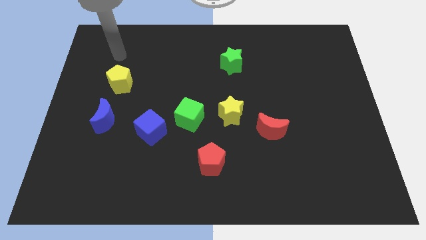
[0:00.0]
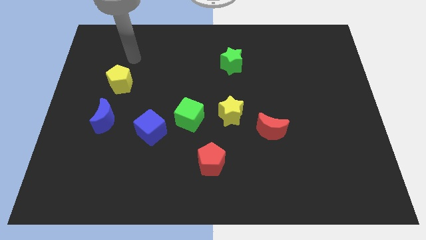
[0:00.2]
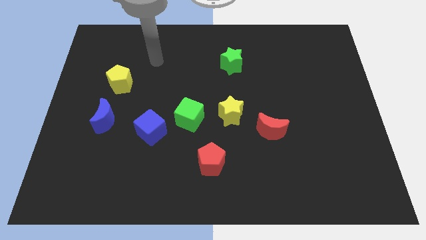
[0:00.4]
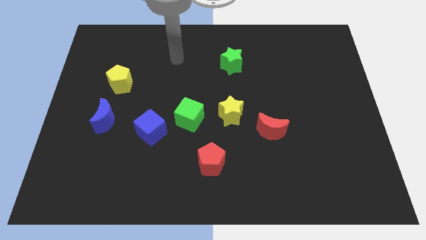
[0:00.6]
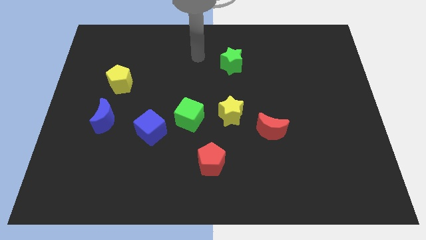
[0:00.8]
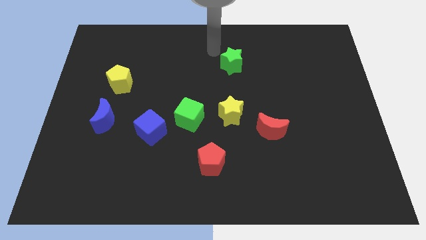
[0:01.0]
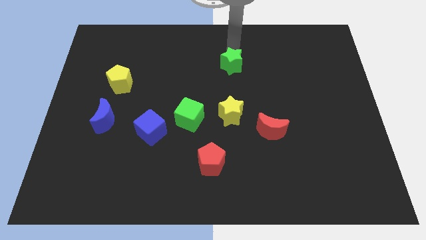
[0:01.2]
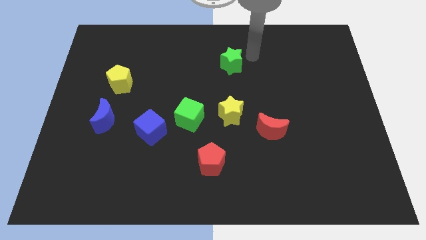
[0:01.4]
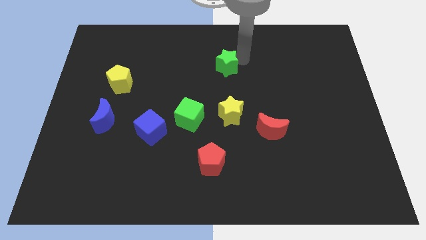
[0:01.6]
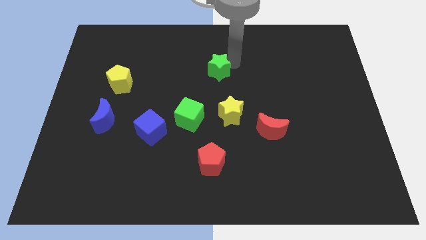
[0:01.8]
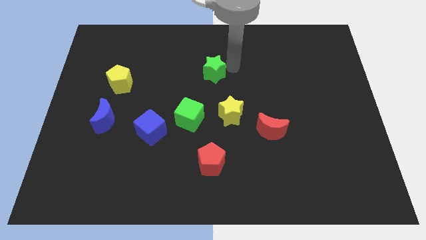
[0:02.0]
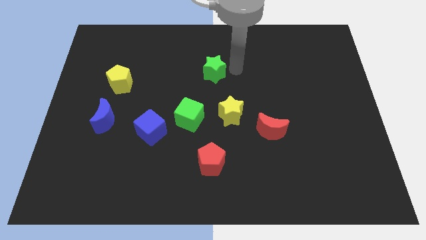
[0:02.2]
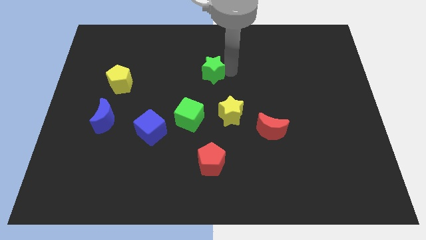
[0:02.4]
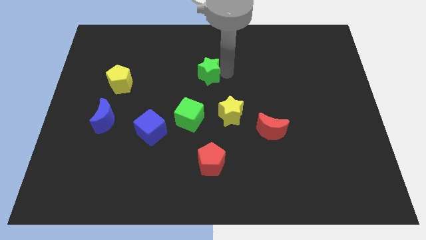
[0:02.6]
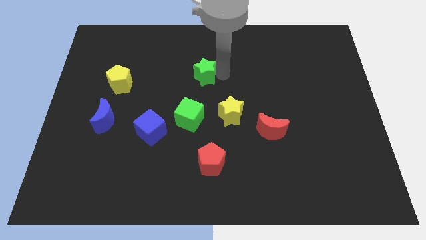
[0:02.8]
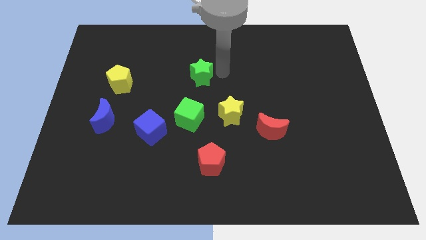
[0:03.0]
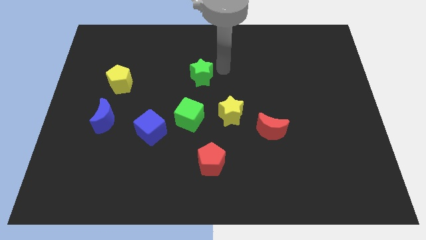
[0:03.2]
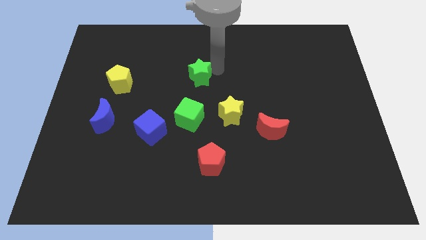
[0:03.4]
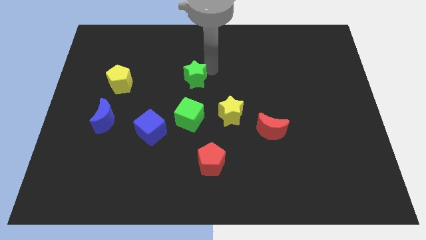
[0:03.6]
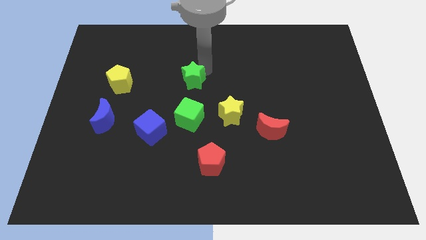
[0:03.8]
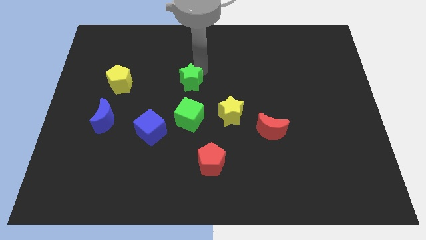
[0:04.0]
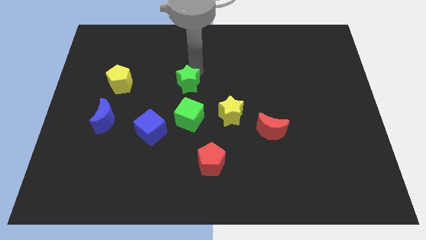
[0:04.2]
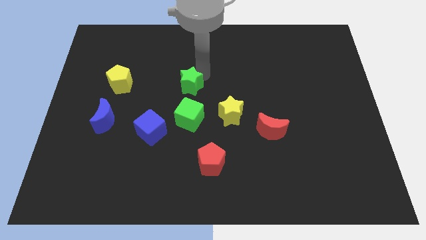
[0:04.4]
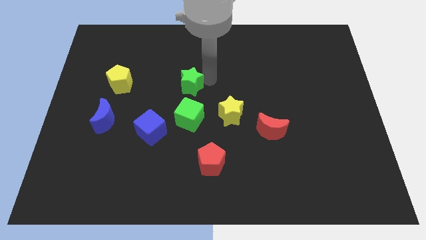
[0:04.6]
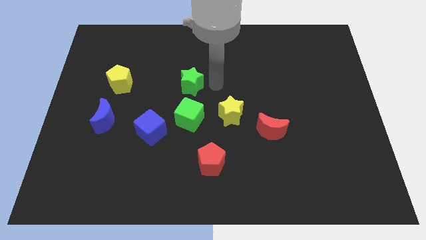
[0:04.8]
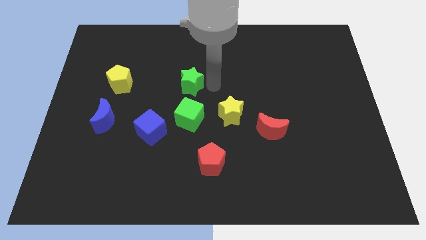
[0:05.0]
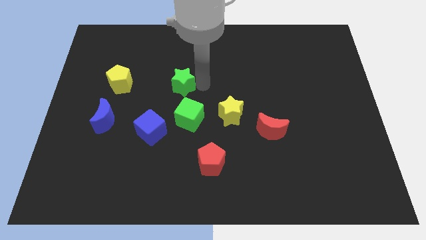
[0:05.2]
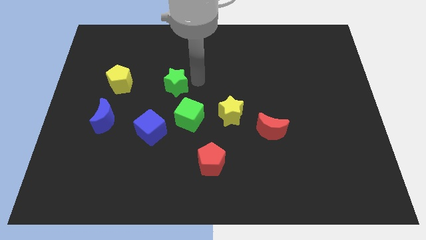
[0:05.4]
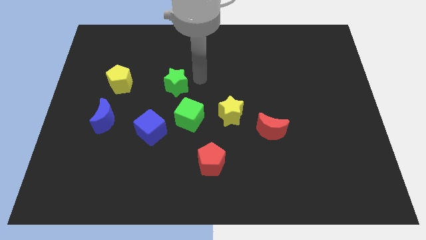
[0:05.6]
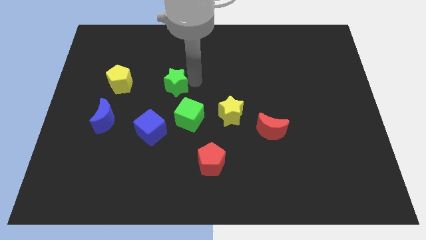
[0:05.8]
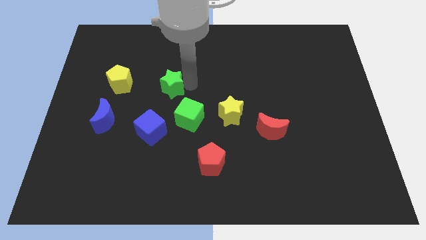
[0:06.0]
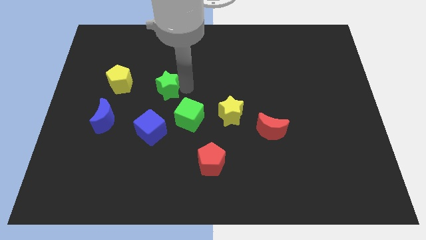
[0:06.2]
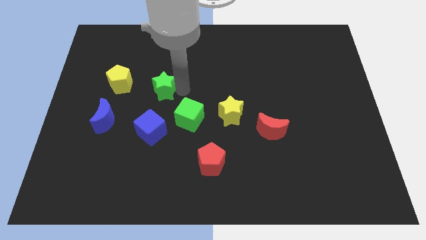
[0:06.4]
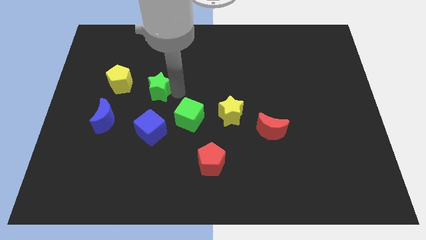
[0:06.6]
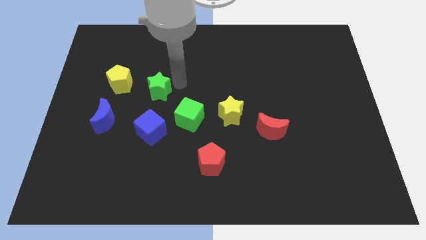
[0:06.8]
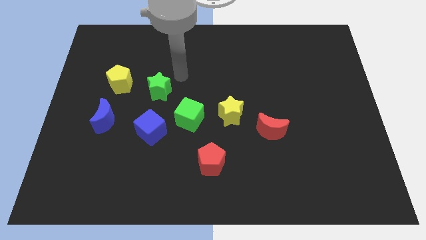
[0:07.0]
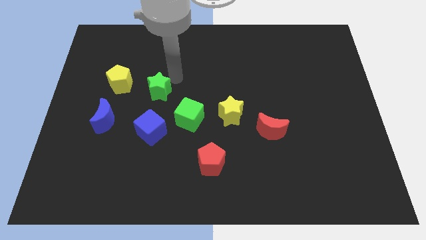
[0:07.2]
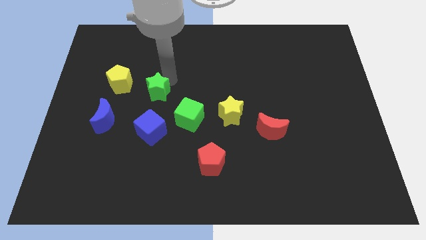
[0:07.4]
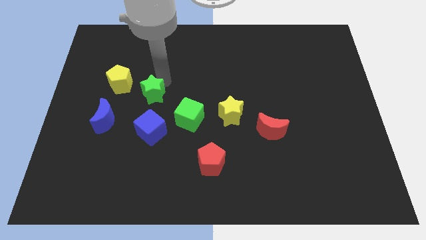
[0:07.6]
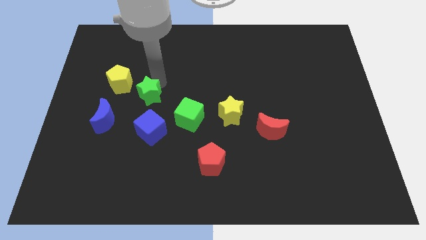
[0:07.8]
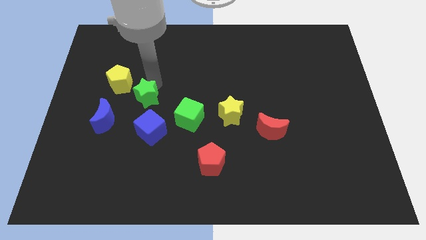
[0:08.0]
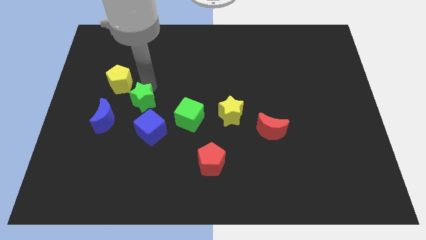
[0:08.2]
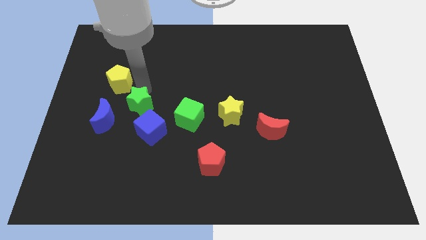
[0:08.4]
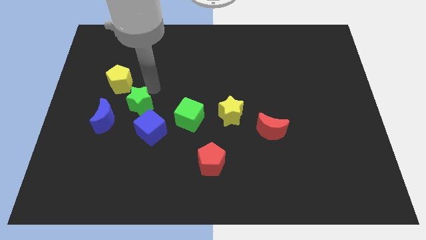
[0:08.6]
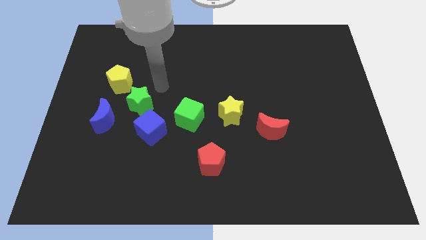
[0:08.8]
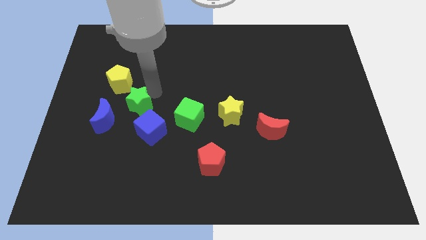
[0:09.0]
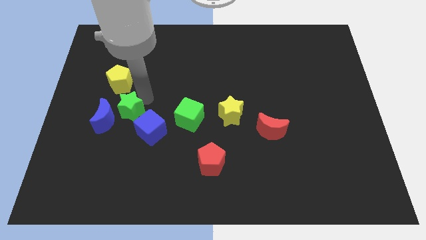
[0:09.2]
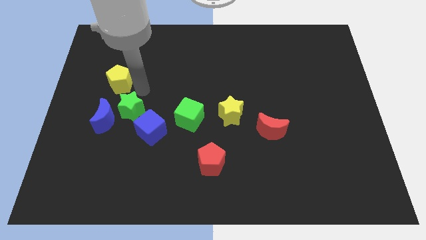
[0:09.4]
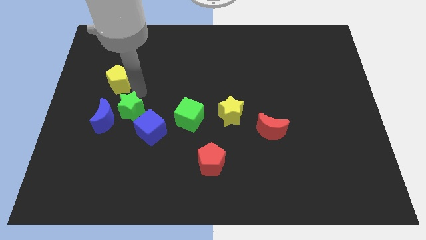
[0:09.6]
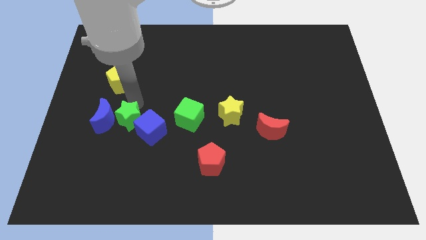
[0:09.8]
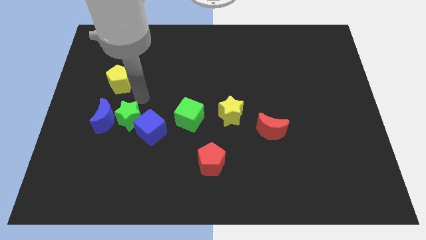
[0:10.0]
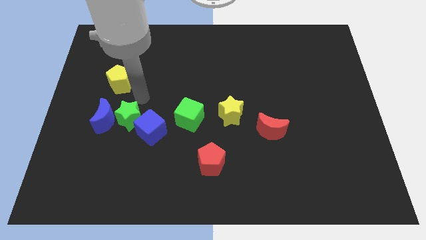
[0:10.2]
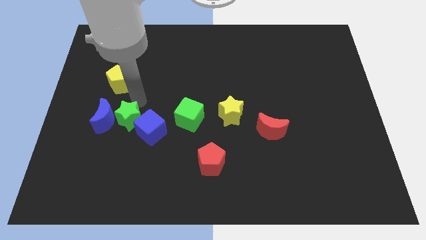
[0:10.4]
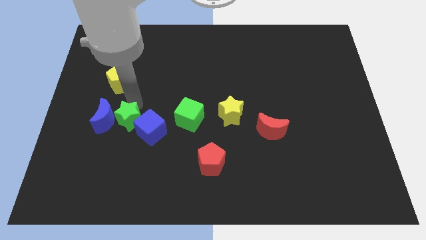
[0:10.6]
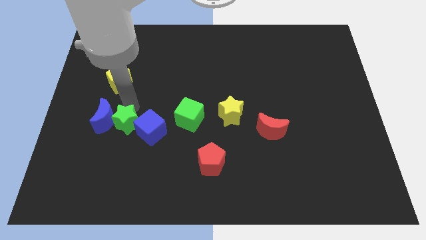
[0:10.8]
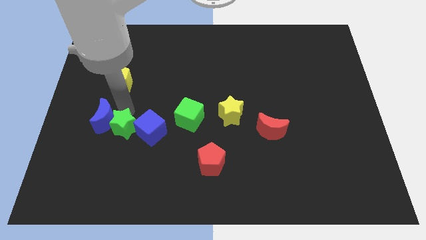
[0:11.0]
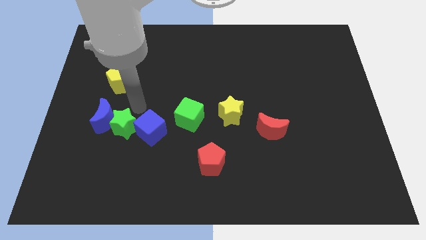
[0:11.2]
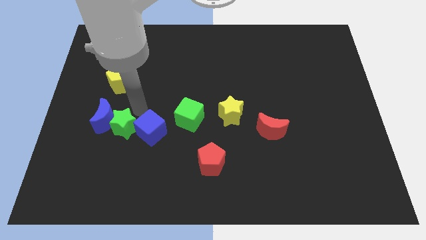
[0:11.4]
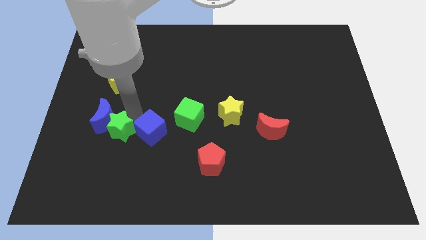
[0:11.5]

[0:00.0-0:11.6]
push the green star to the bottom of the blue moon

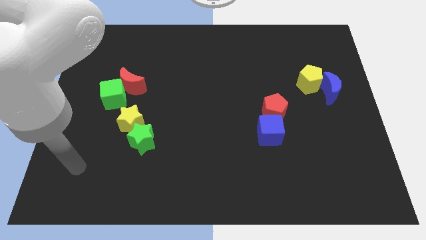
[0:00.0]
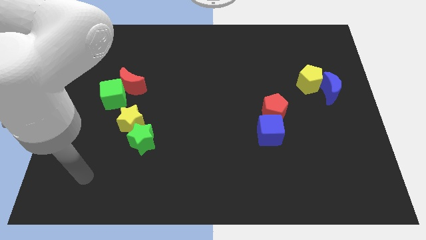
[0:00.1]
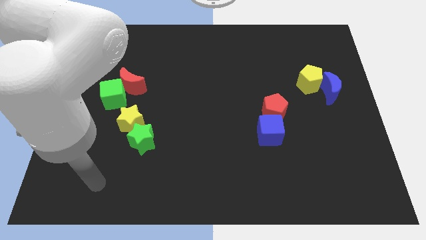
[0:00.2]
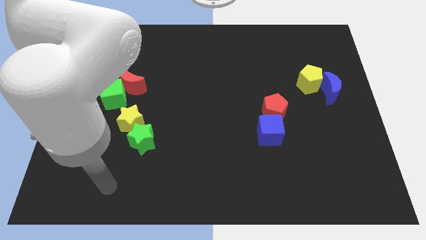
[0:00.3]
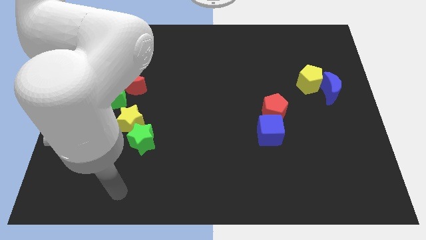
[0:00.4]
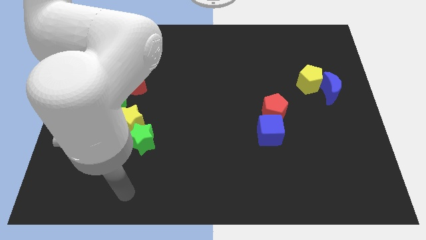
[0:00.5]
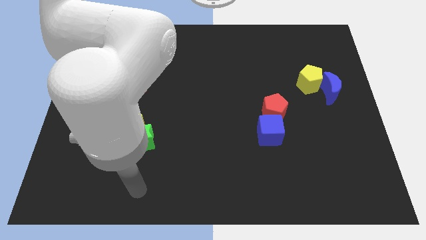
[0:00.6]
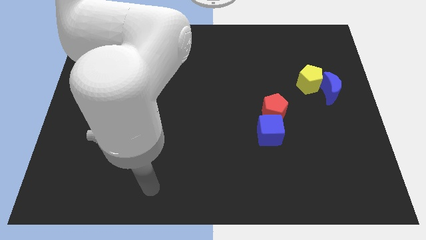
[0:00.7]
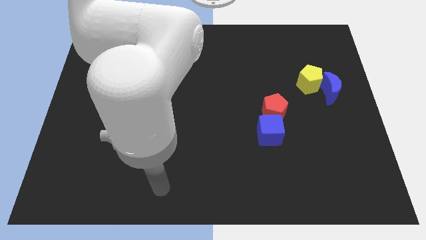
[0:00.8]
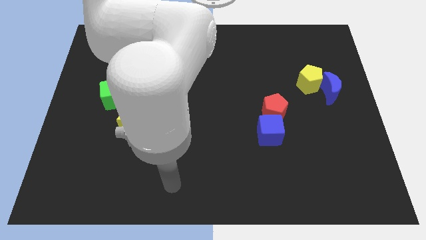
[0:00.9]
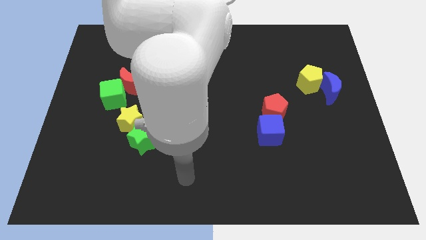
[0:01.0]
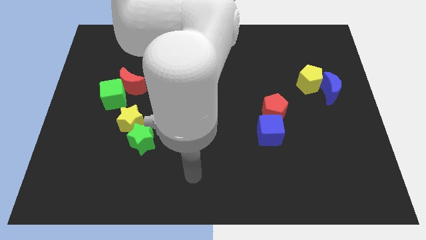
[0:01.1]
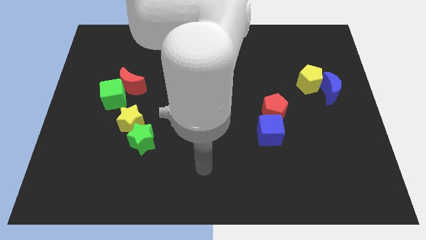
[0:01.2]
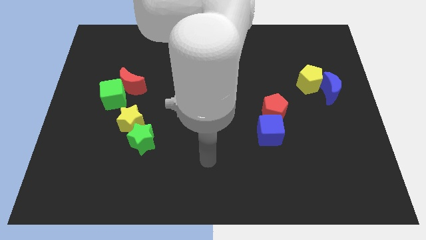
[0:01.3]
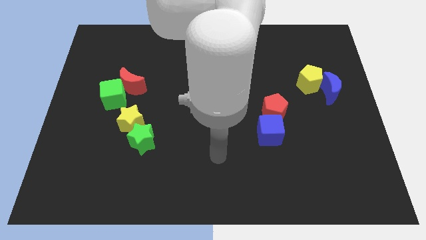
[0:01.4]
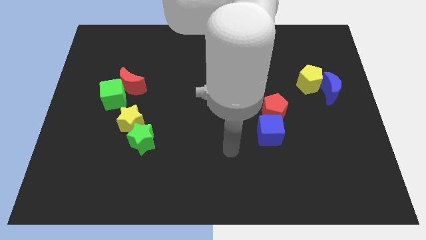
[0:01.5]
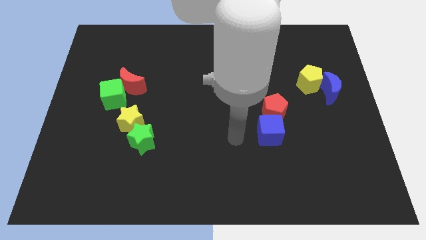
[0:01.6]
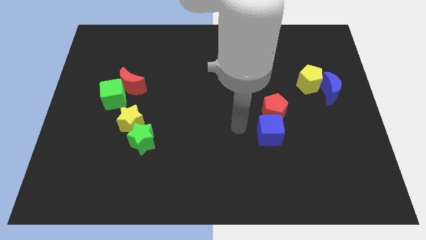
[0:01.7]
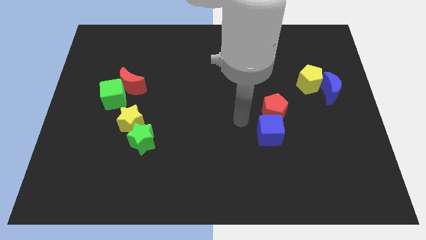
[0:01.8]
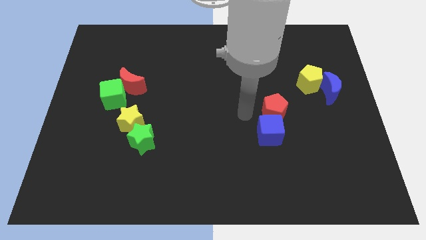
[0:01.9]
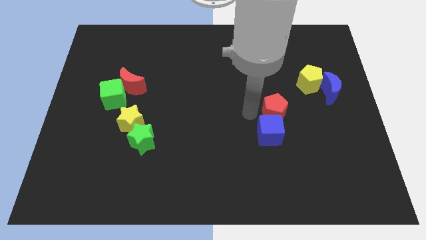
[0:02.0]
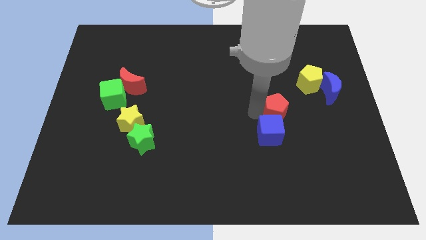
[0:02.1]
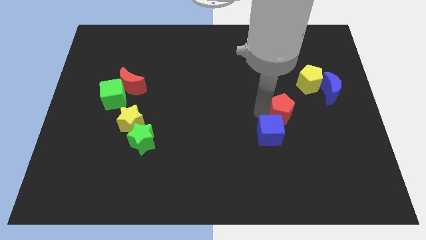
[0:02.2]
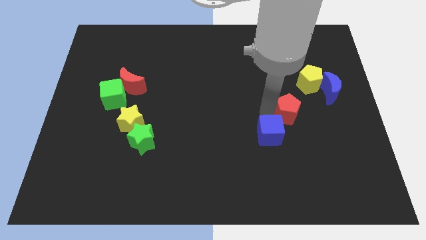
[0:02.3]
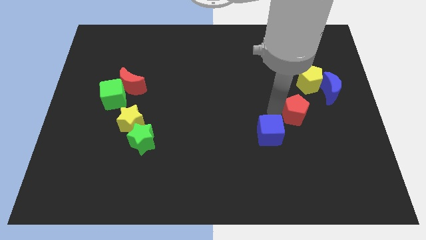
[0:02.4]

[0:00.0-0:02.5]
put the red pentagon below the yellow pentagon

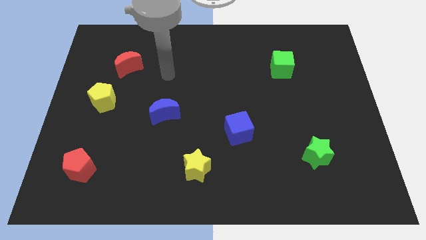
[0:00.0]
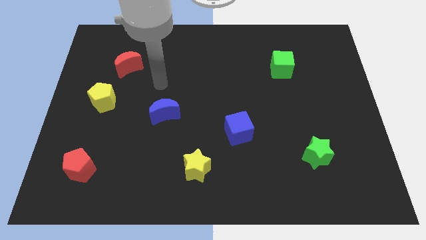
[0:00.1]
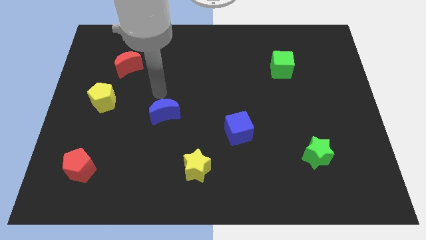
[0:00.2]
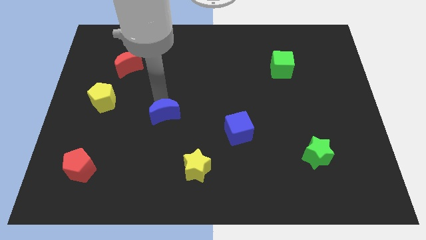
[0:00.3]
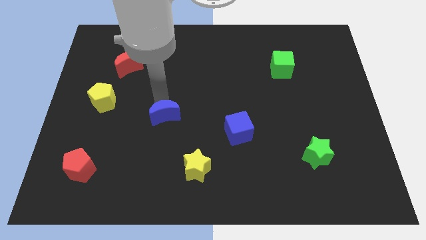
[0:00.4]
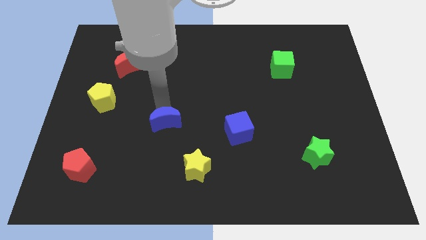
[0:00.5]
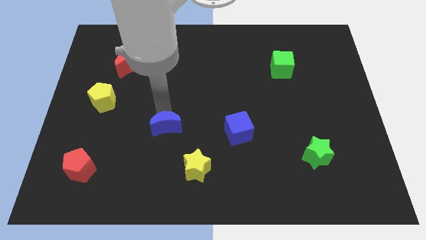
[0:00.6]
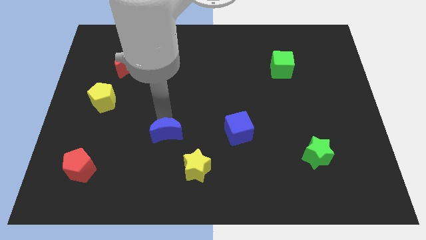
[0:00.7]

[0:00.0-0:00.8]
slide the blue moon to the top left of the yellow star
